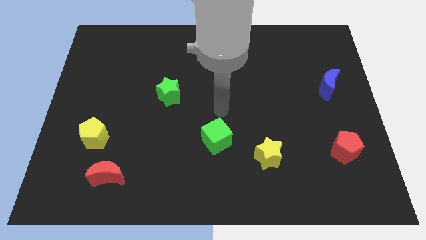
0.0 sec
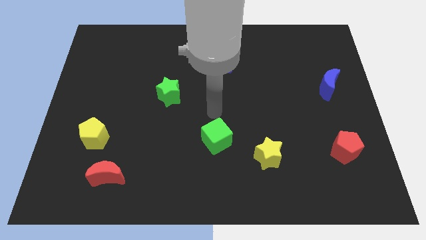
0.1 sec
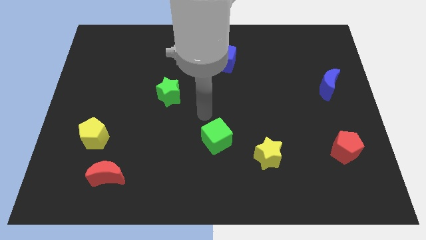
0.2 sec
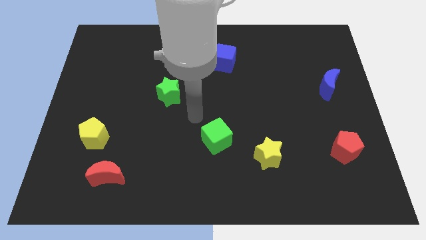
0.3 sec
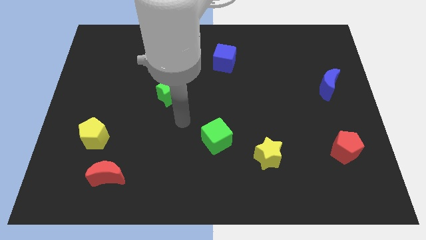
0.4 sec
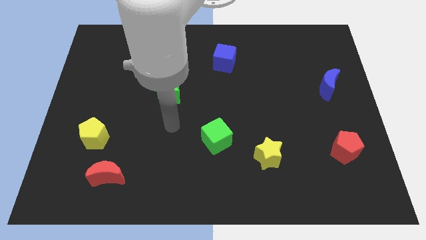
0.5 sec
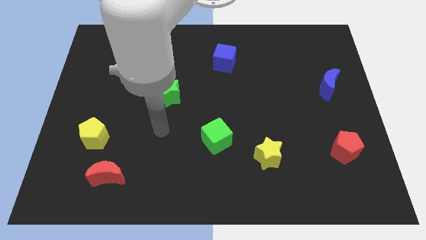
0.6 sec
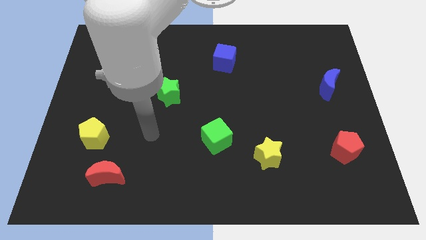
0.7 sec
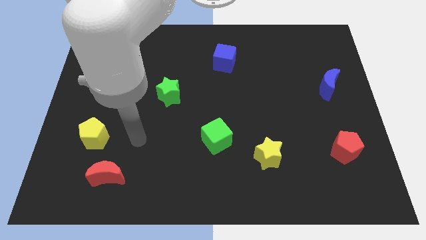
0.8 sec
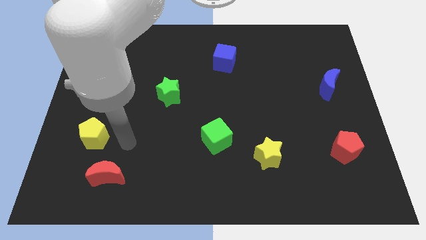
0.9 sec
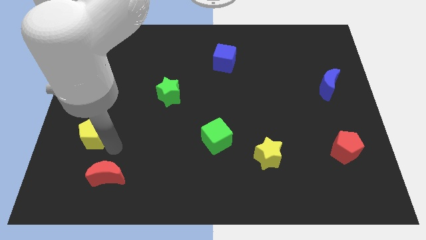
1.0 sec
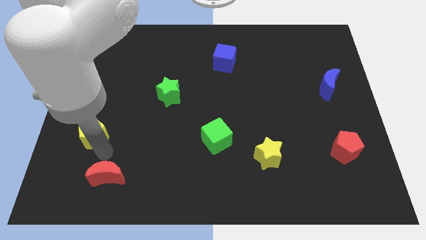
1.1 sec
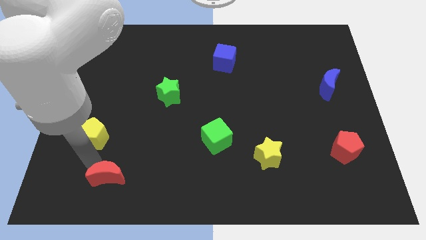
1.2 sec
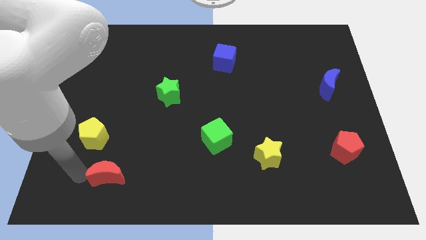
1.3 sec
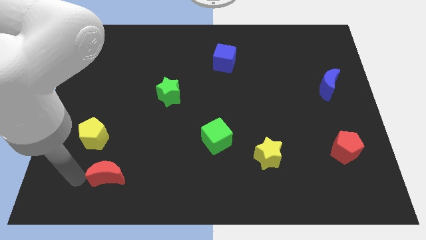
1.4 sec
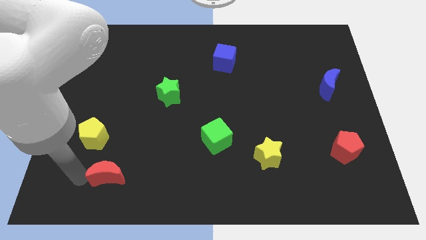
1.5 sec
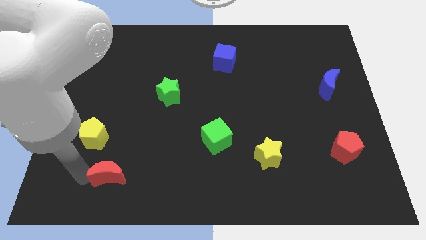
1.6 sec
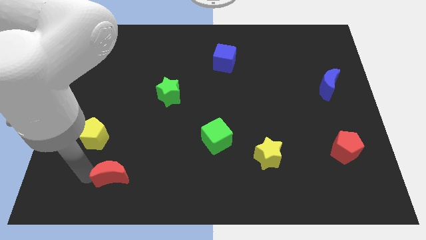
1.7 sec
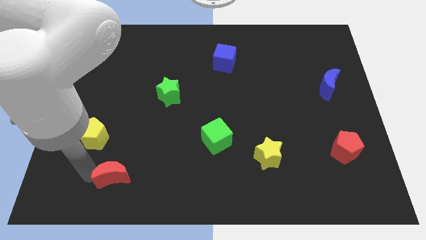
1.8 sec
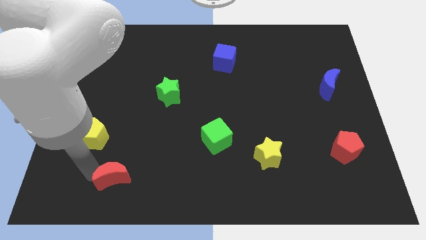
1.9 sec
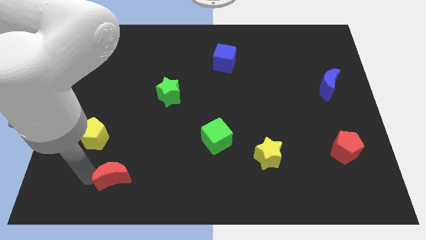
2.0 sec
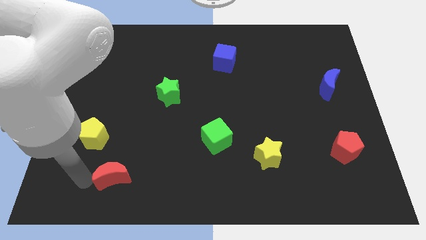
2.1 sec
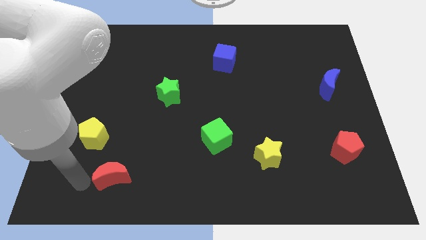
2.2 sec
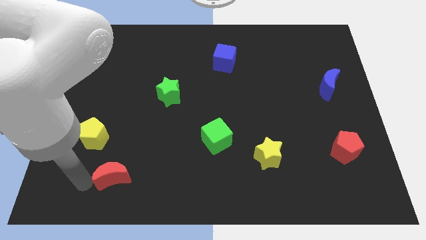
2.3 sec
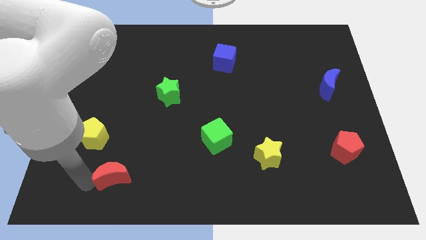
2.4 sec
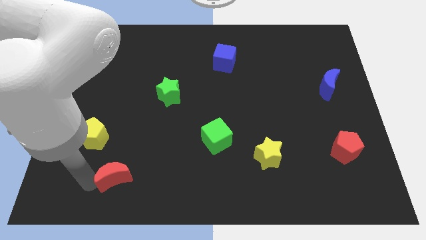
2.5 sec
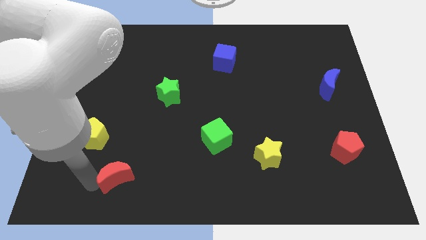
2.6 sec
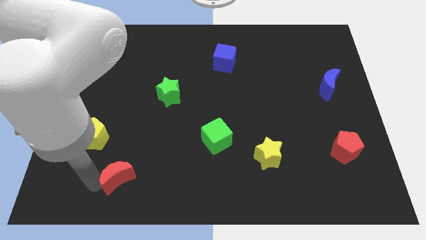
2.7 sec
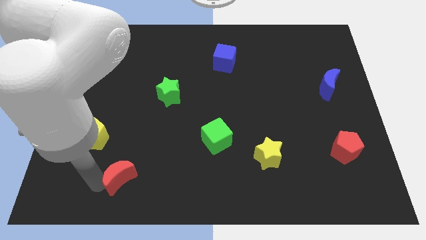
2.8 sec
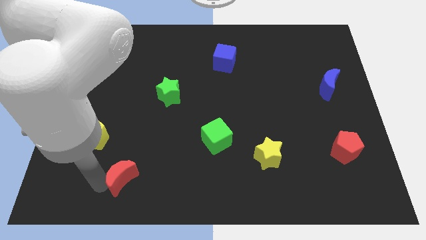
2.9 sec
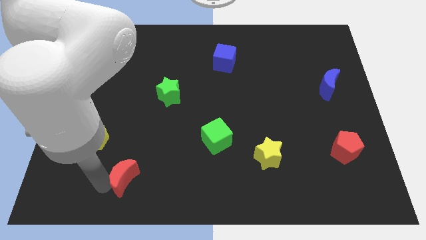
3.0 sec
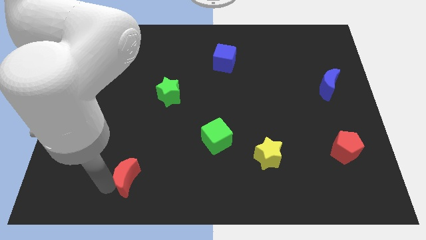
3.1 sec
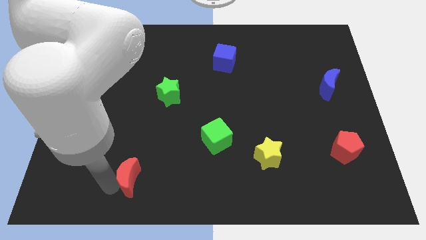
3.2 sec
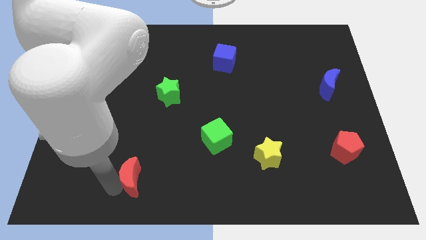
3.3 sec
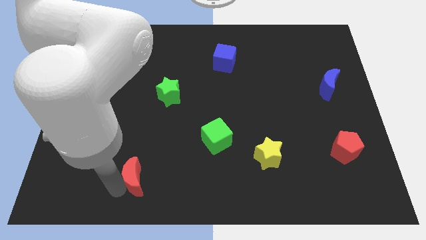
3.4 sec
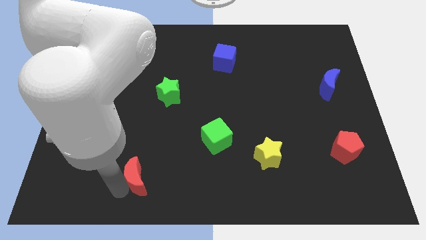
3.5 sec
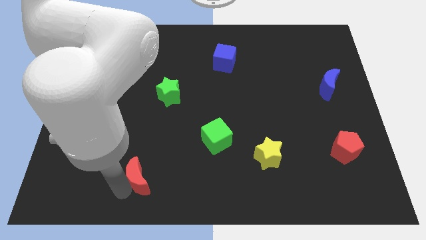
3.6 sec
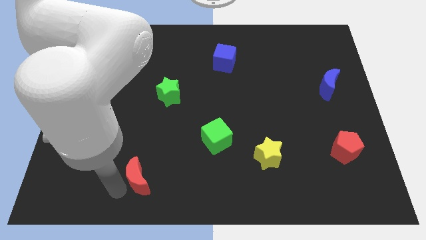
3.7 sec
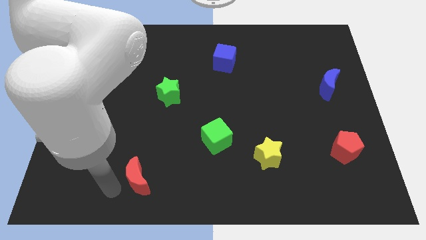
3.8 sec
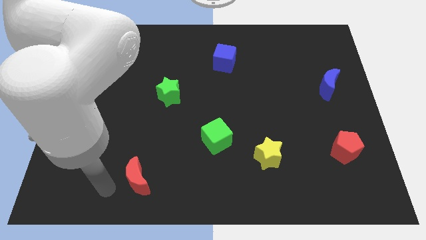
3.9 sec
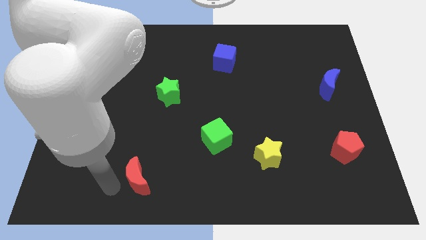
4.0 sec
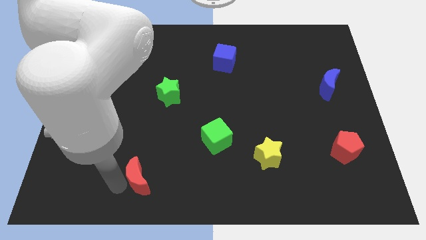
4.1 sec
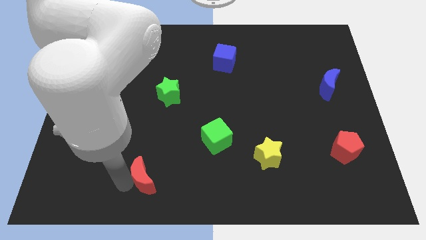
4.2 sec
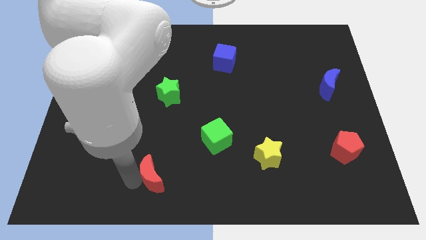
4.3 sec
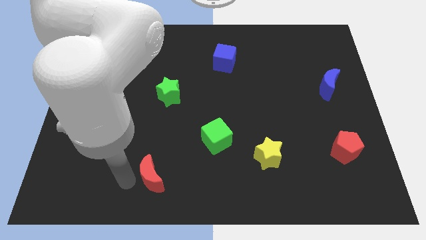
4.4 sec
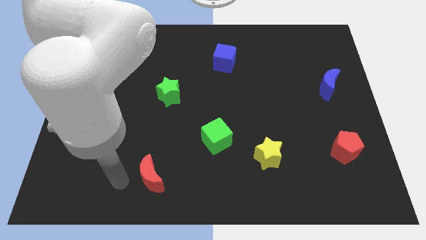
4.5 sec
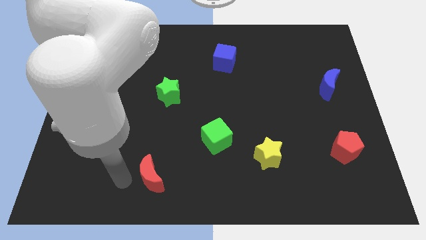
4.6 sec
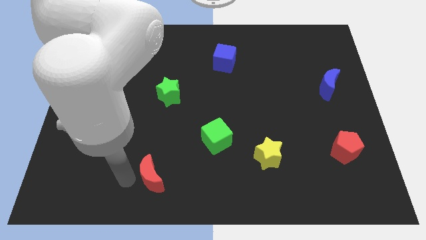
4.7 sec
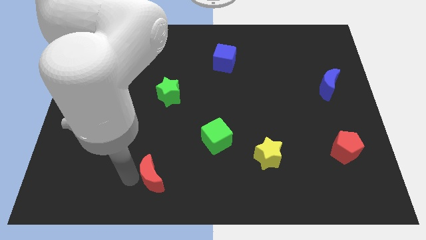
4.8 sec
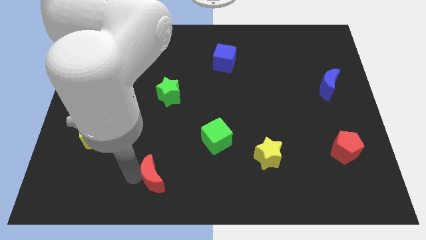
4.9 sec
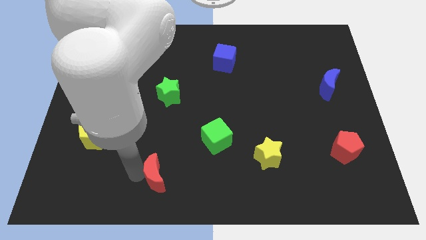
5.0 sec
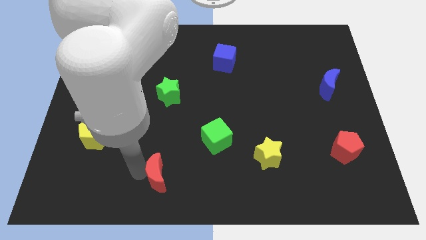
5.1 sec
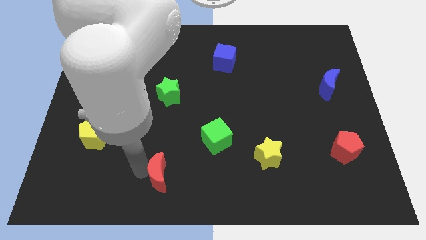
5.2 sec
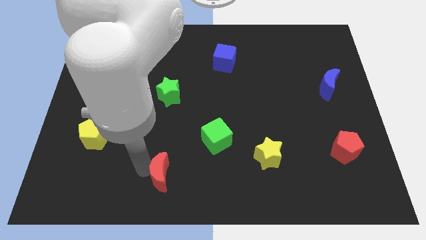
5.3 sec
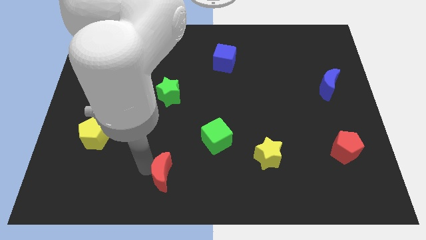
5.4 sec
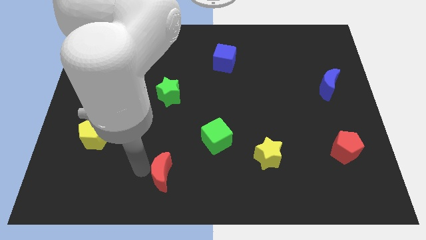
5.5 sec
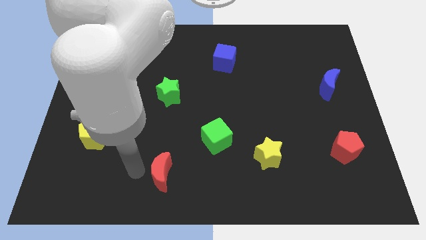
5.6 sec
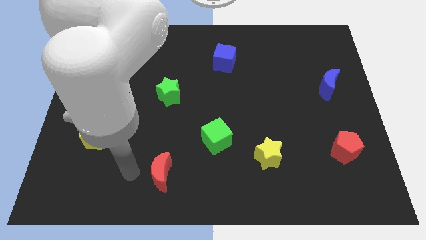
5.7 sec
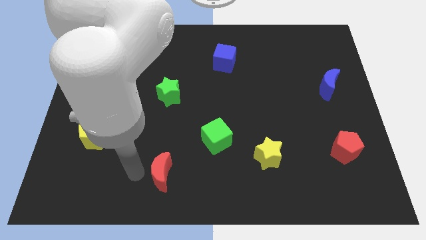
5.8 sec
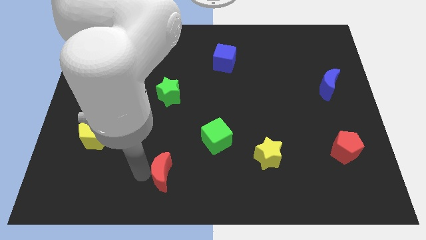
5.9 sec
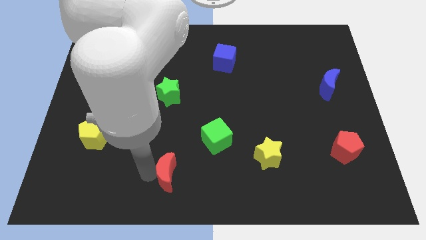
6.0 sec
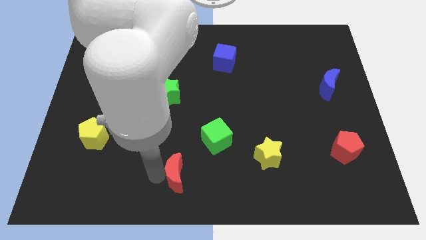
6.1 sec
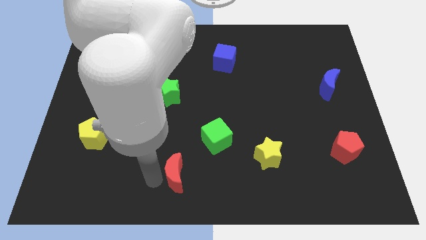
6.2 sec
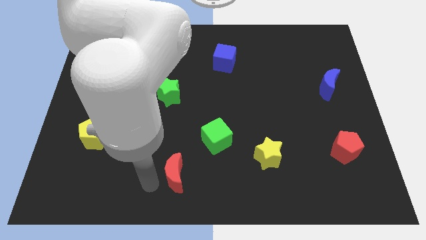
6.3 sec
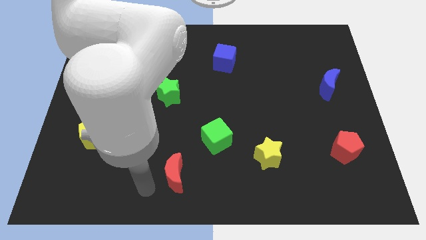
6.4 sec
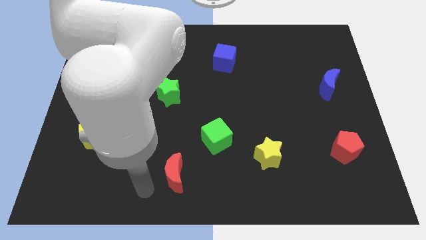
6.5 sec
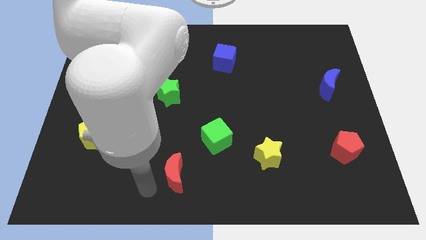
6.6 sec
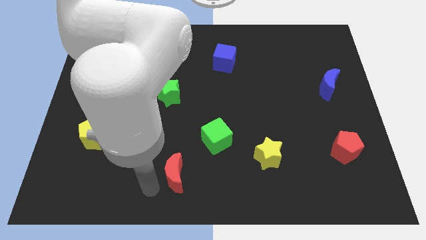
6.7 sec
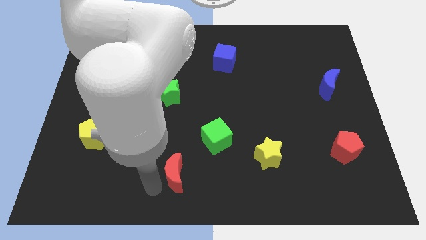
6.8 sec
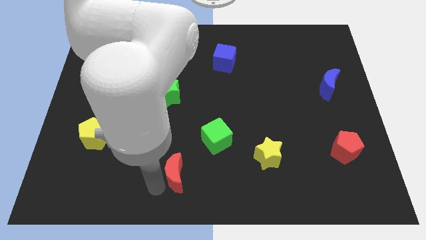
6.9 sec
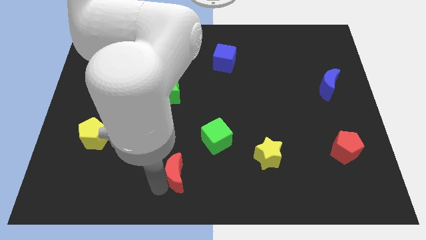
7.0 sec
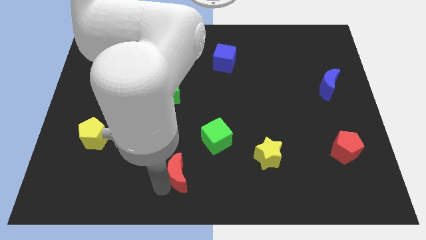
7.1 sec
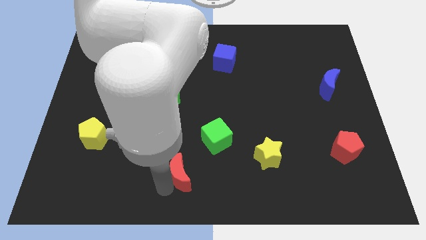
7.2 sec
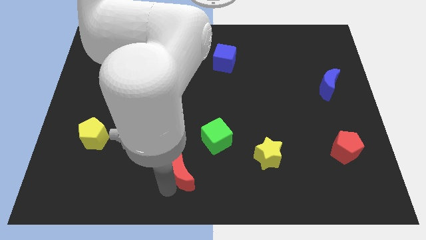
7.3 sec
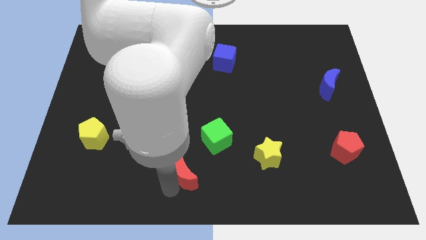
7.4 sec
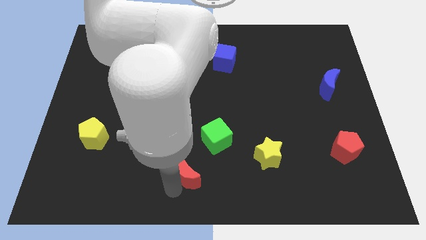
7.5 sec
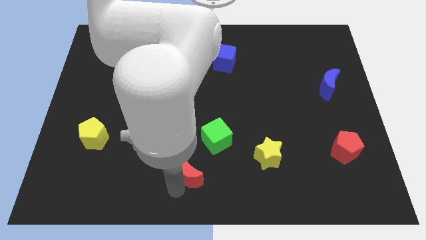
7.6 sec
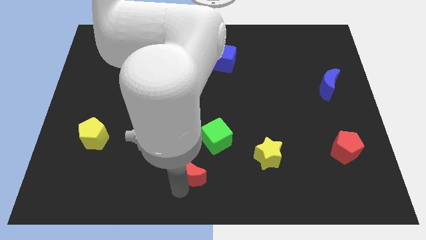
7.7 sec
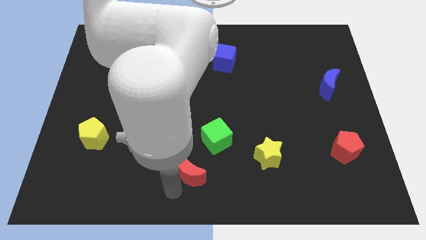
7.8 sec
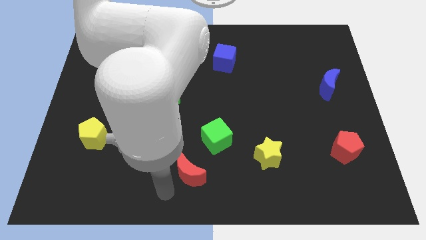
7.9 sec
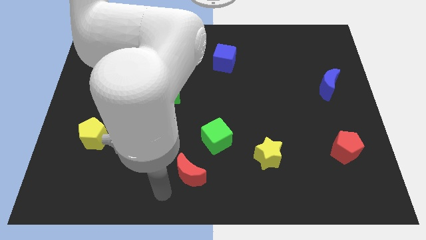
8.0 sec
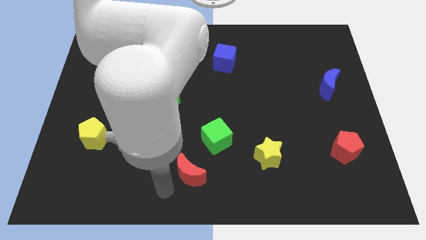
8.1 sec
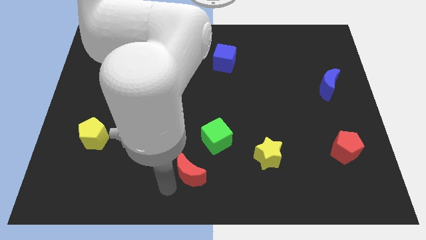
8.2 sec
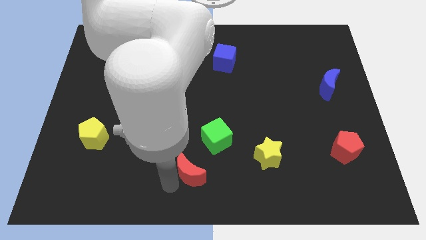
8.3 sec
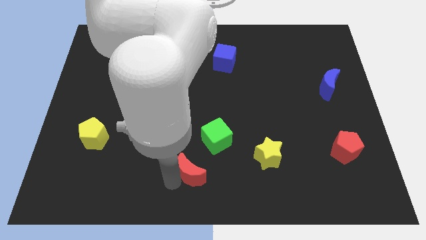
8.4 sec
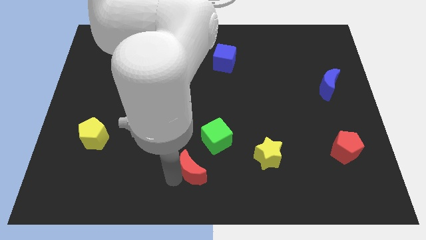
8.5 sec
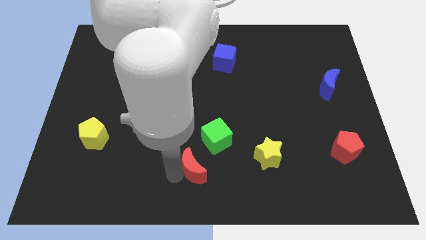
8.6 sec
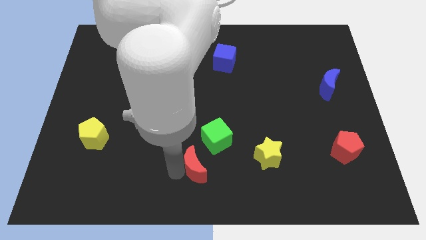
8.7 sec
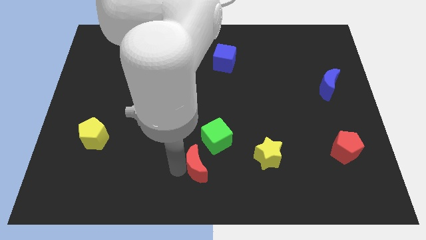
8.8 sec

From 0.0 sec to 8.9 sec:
put the red moon to the left of the yellow star
